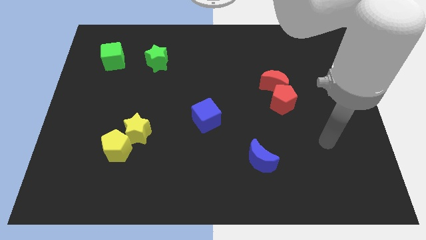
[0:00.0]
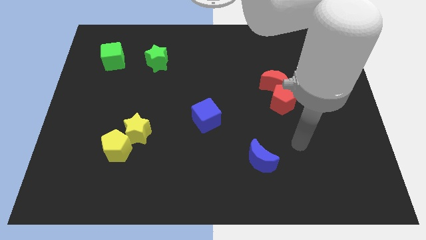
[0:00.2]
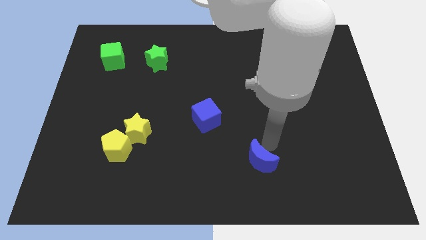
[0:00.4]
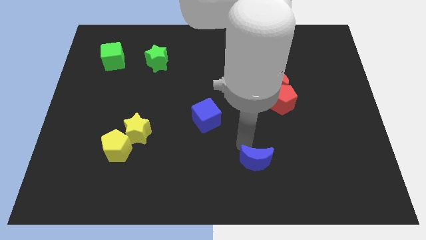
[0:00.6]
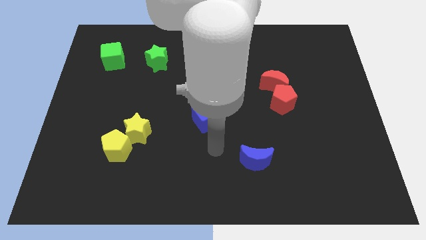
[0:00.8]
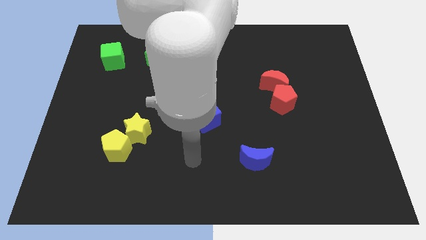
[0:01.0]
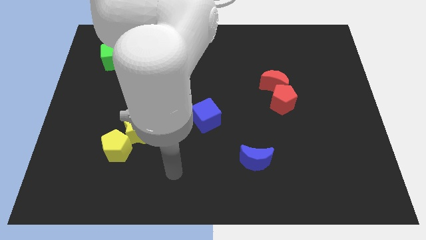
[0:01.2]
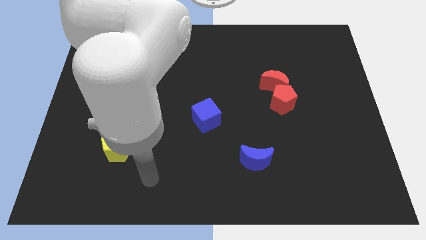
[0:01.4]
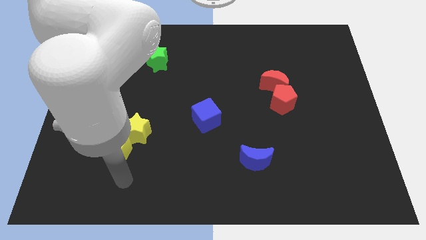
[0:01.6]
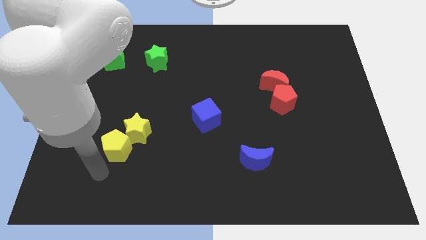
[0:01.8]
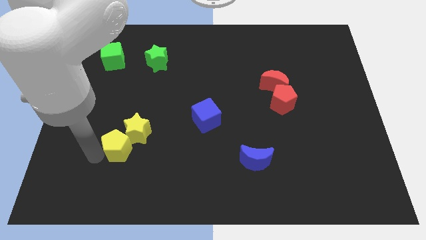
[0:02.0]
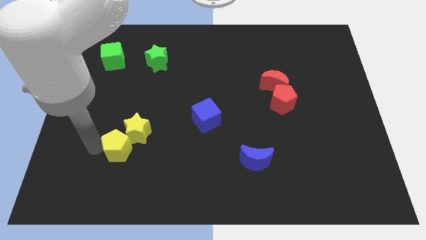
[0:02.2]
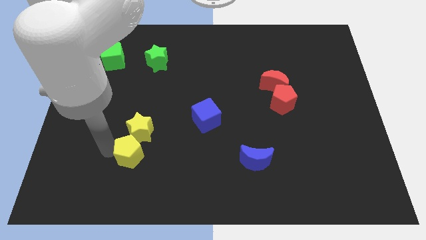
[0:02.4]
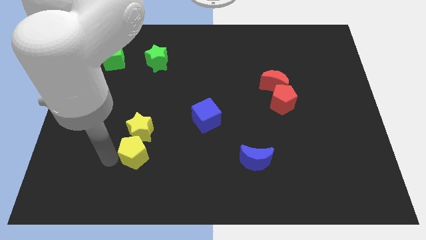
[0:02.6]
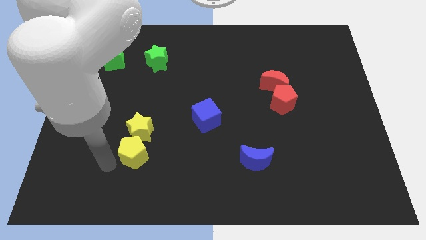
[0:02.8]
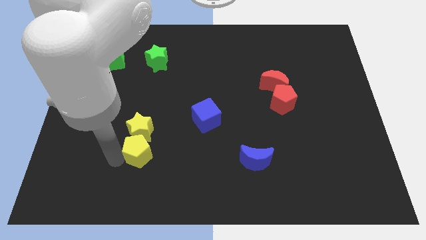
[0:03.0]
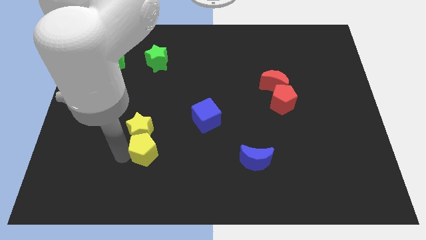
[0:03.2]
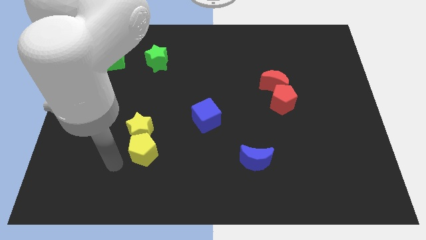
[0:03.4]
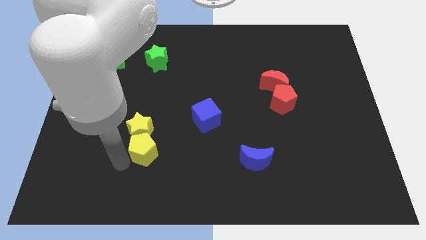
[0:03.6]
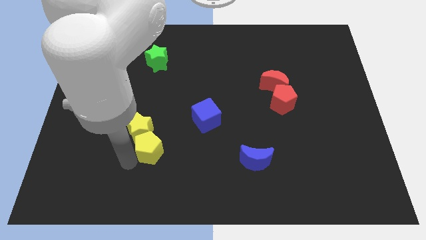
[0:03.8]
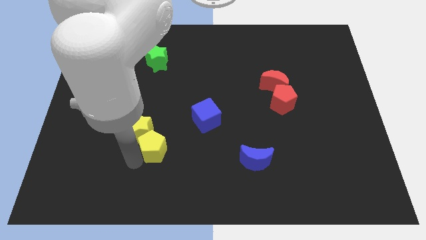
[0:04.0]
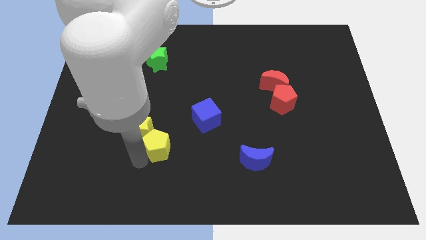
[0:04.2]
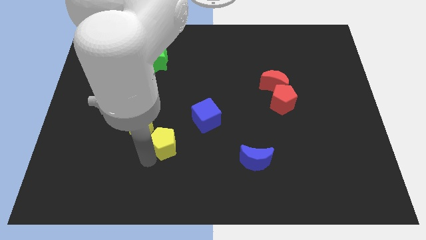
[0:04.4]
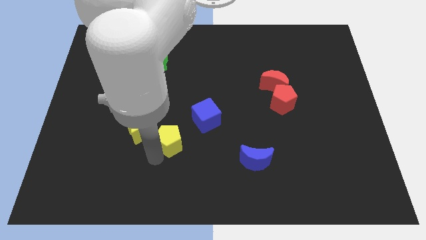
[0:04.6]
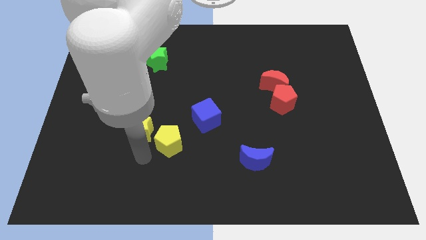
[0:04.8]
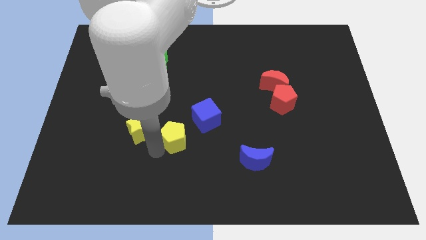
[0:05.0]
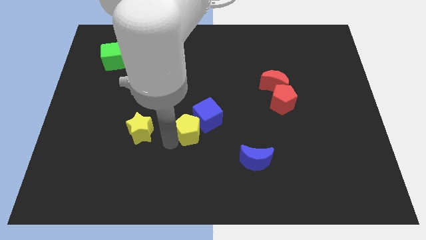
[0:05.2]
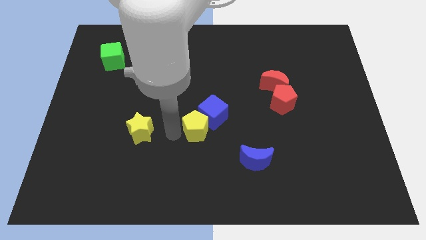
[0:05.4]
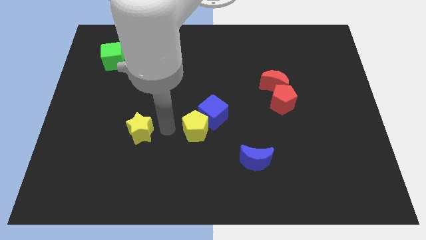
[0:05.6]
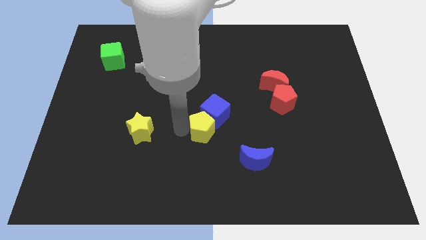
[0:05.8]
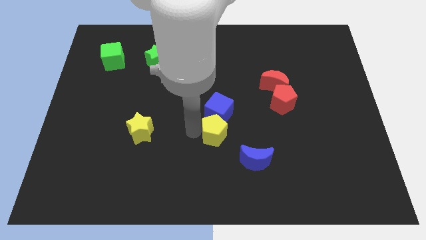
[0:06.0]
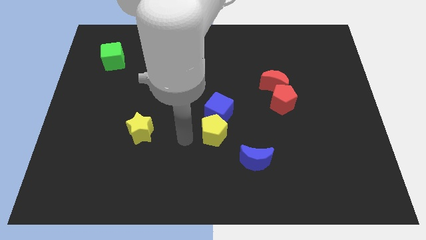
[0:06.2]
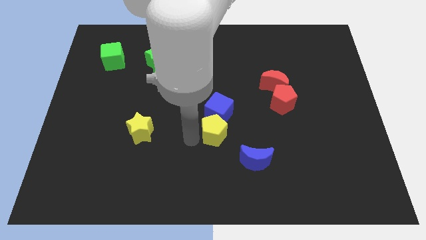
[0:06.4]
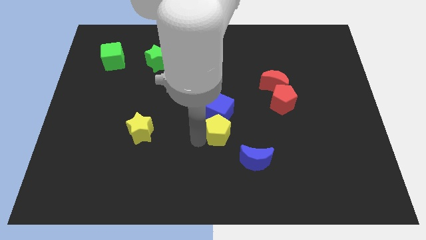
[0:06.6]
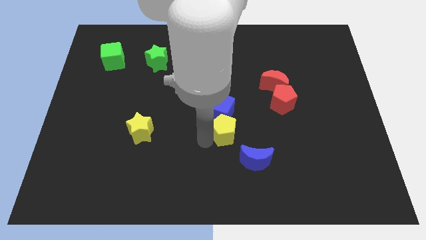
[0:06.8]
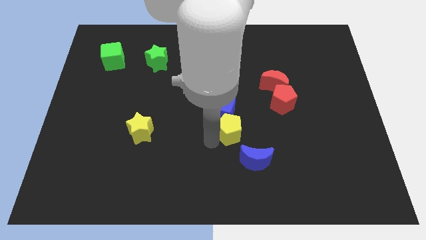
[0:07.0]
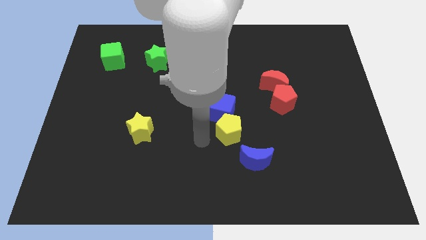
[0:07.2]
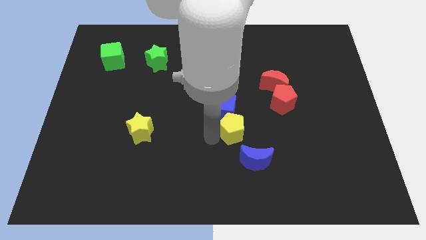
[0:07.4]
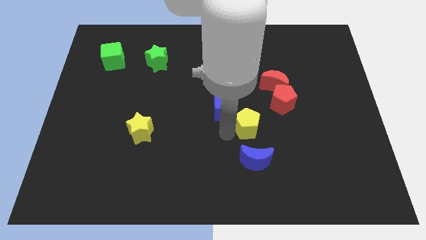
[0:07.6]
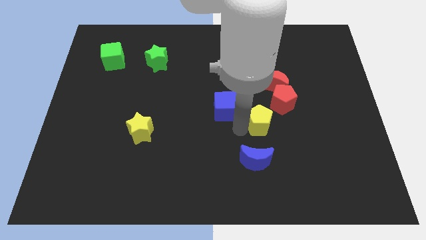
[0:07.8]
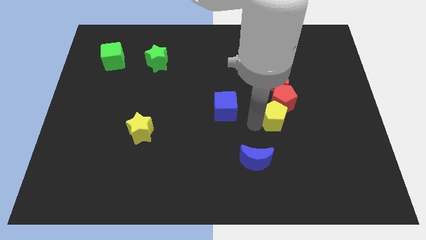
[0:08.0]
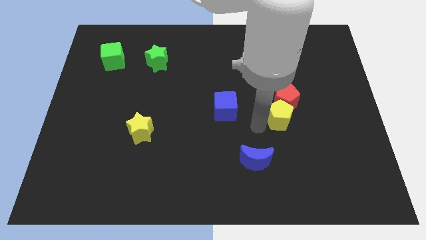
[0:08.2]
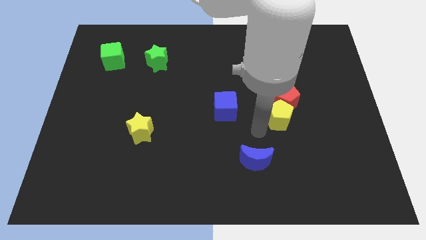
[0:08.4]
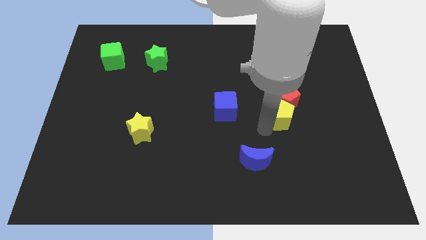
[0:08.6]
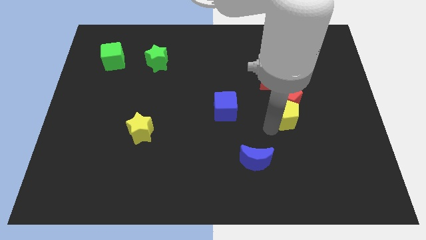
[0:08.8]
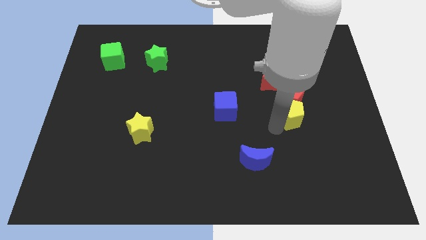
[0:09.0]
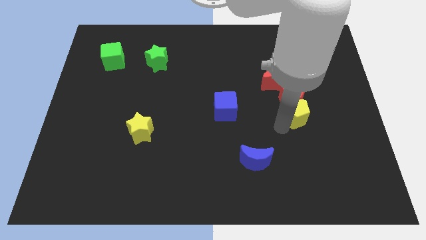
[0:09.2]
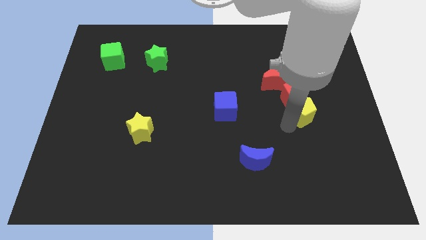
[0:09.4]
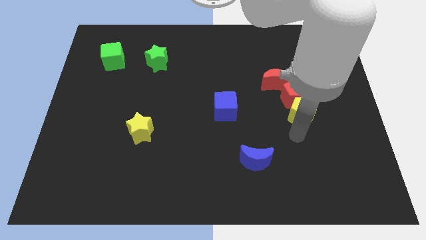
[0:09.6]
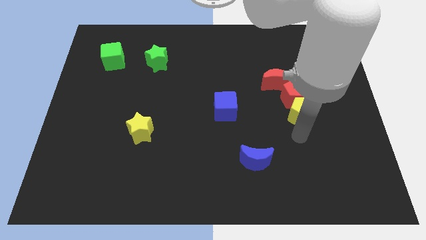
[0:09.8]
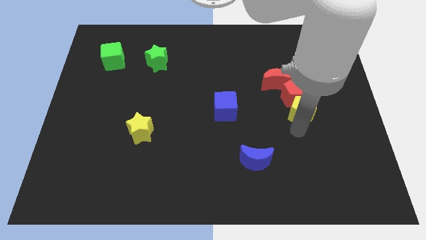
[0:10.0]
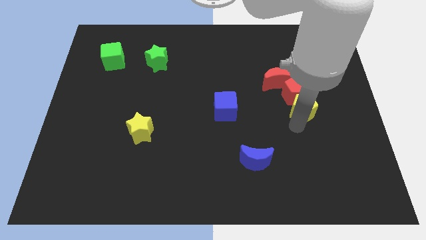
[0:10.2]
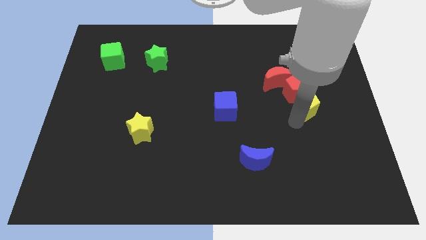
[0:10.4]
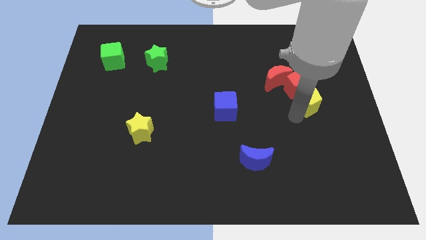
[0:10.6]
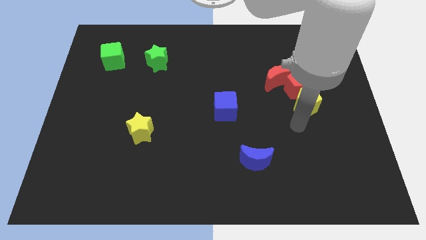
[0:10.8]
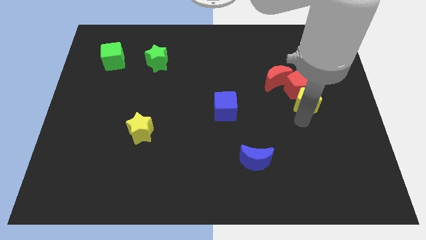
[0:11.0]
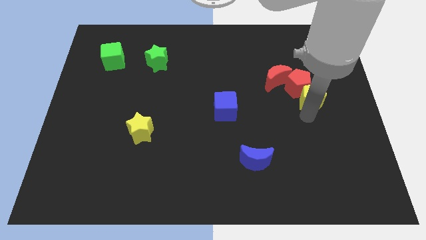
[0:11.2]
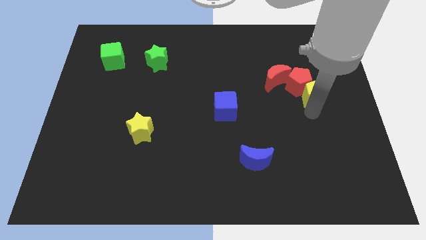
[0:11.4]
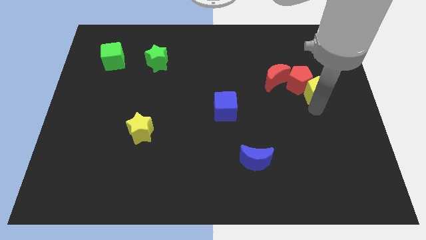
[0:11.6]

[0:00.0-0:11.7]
slide the yellow pentagon to the right of the red moon

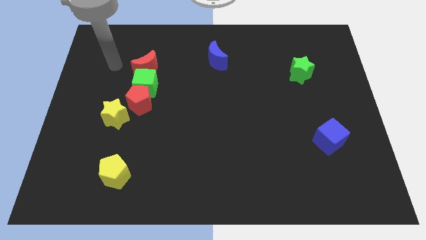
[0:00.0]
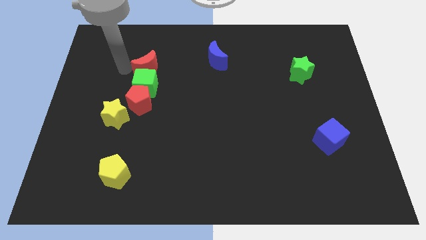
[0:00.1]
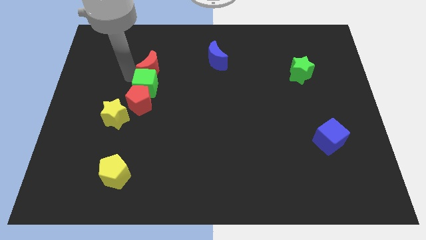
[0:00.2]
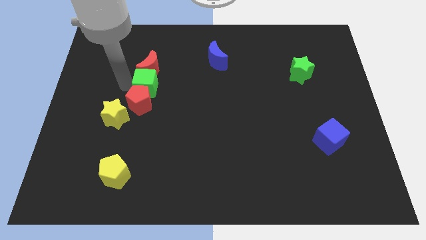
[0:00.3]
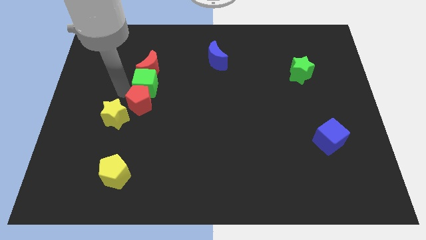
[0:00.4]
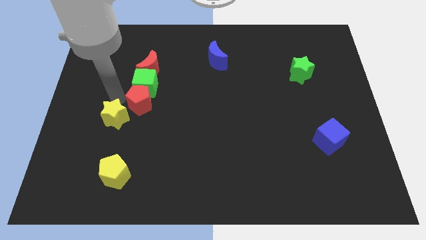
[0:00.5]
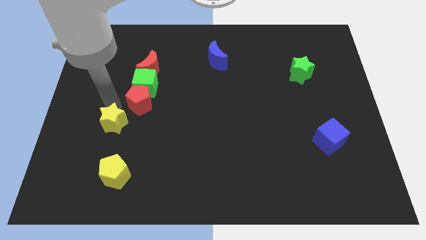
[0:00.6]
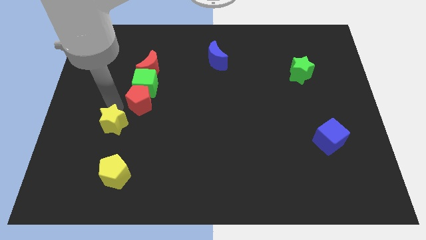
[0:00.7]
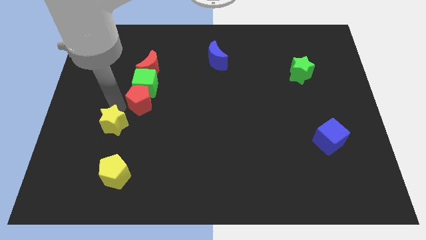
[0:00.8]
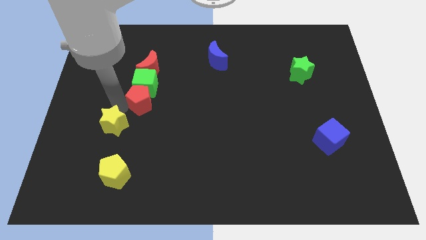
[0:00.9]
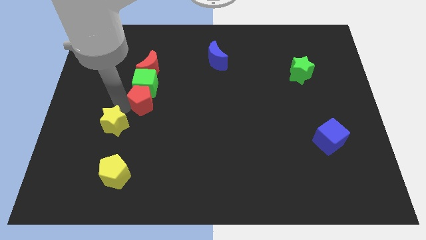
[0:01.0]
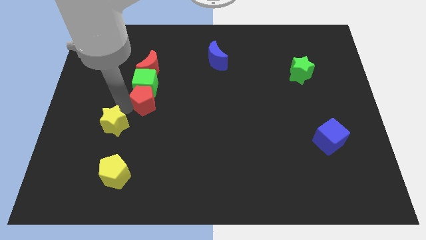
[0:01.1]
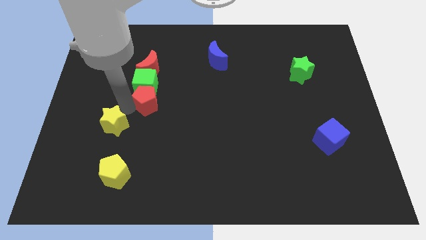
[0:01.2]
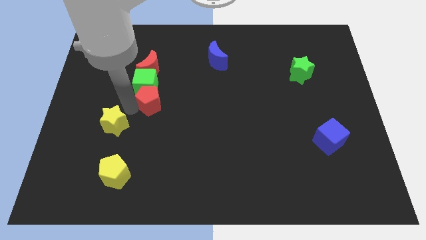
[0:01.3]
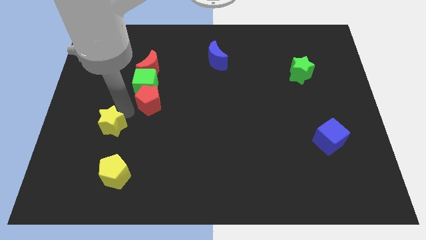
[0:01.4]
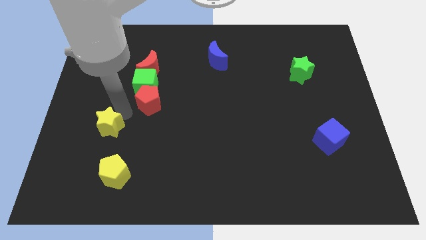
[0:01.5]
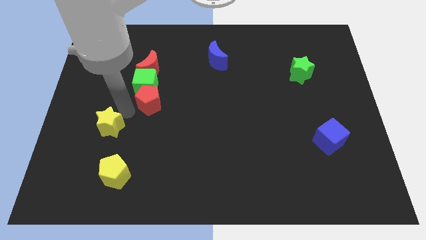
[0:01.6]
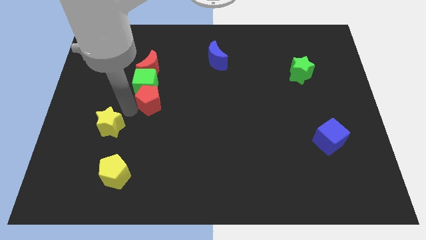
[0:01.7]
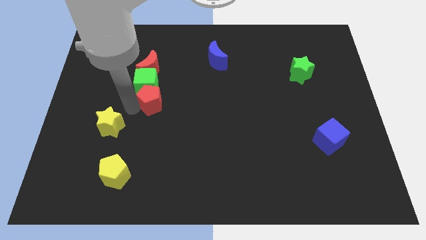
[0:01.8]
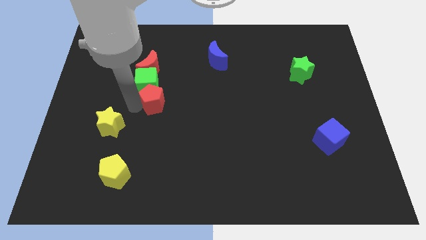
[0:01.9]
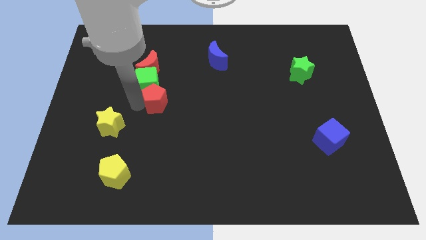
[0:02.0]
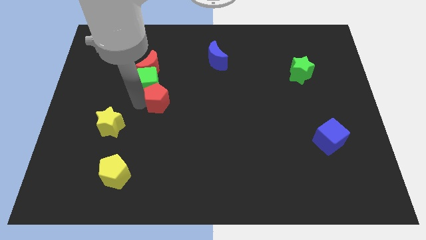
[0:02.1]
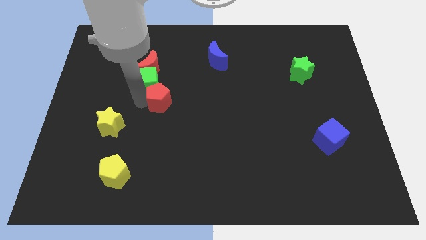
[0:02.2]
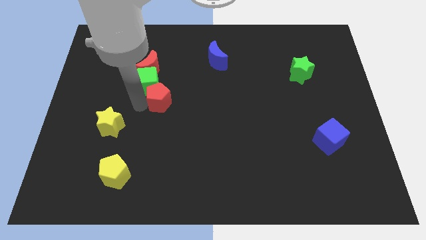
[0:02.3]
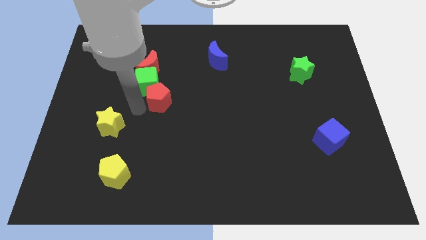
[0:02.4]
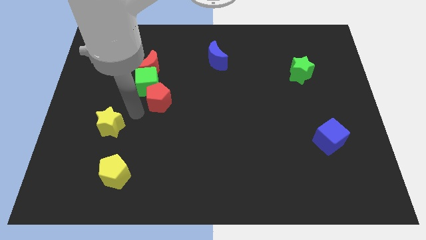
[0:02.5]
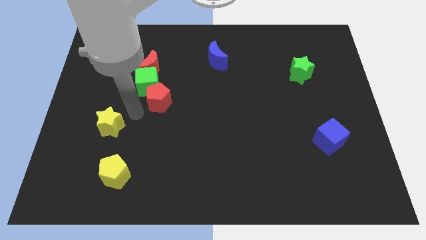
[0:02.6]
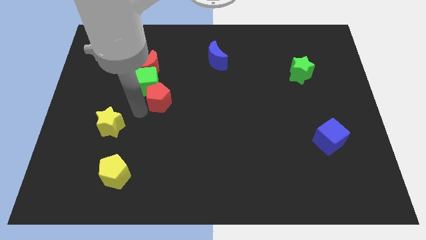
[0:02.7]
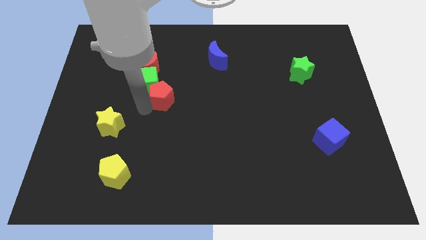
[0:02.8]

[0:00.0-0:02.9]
move the red pentagon just right of the green cube
